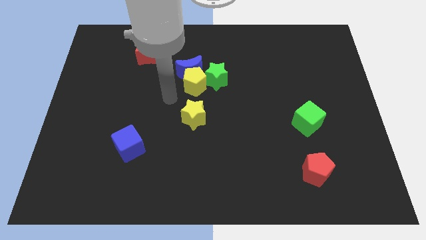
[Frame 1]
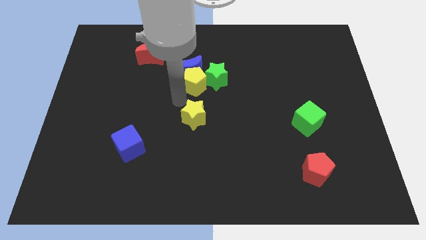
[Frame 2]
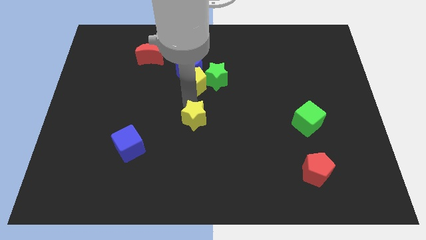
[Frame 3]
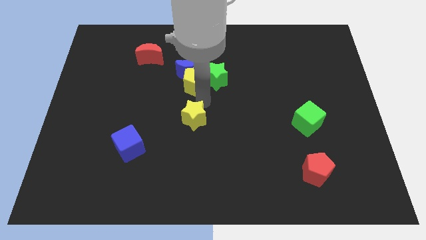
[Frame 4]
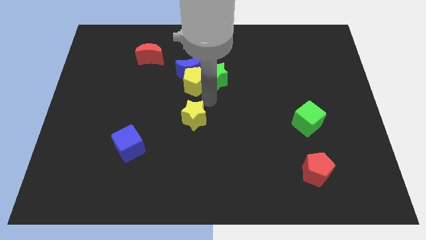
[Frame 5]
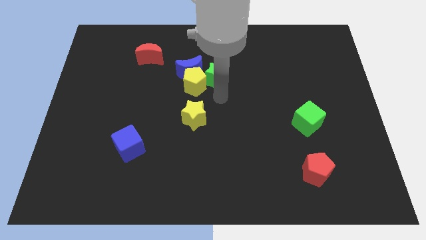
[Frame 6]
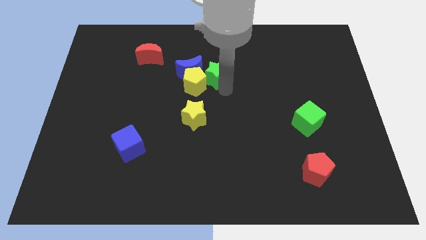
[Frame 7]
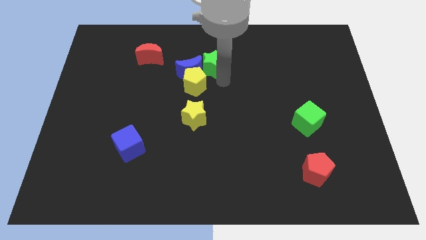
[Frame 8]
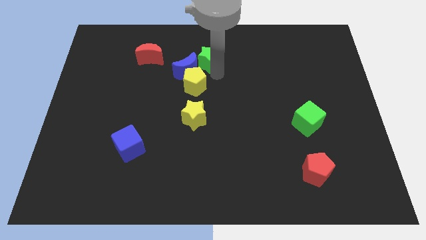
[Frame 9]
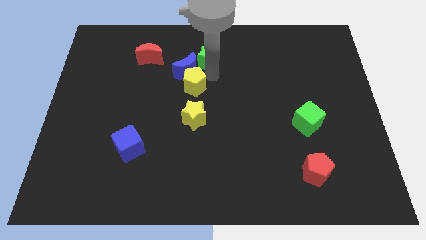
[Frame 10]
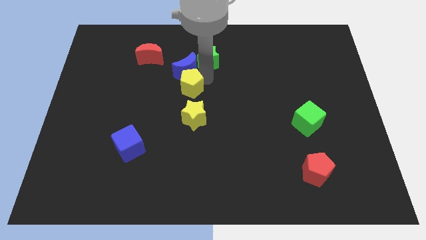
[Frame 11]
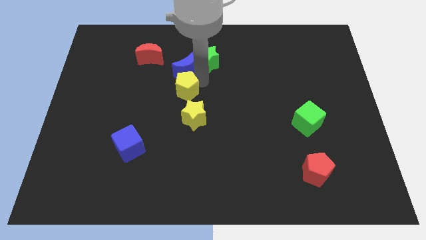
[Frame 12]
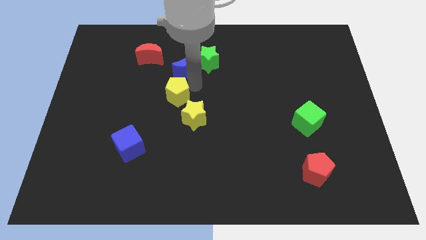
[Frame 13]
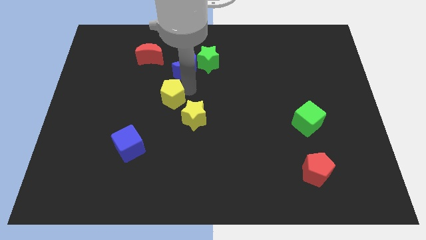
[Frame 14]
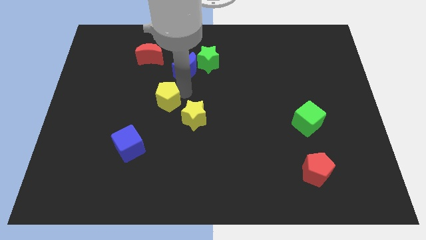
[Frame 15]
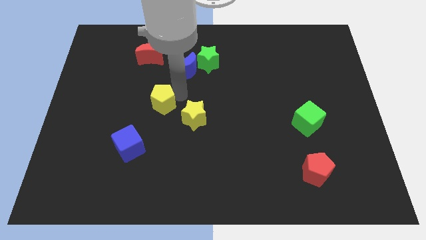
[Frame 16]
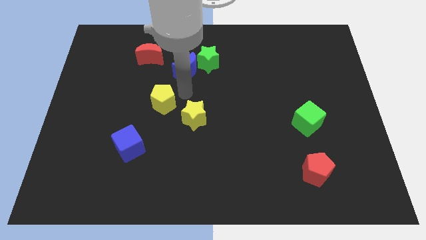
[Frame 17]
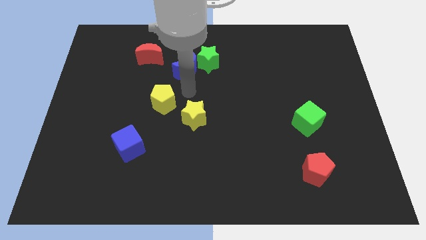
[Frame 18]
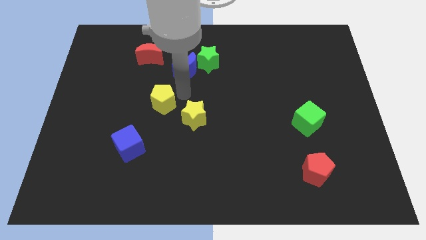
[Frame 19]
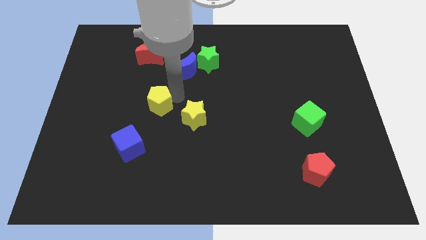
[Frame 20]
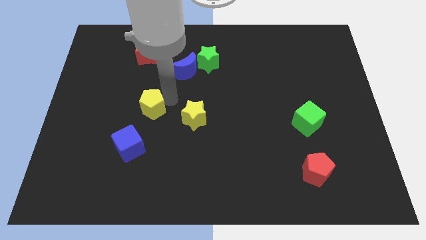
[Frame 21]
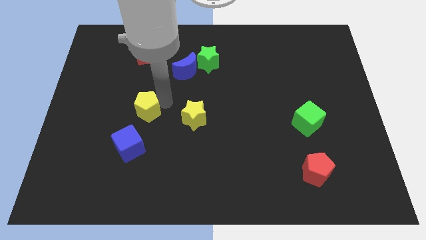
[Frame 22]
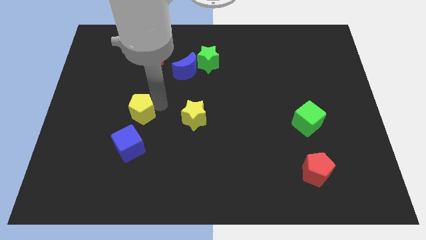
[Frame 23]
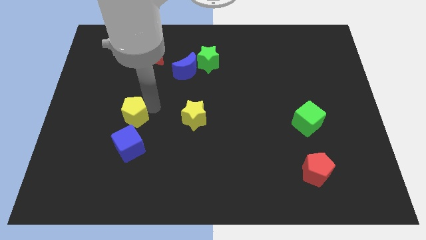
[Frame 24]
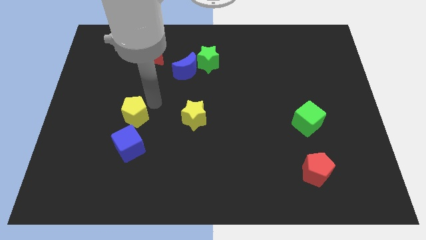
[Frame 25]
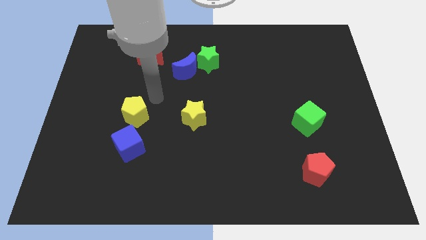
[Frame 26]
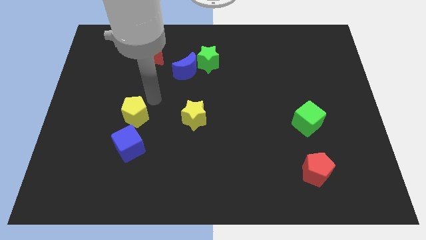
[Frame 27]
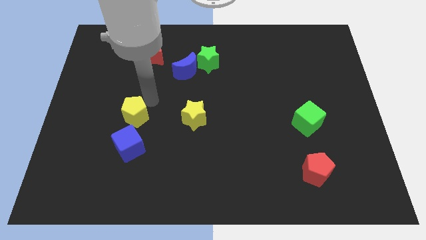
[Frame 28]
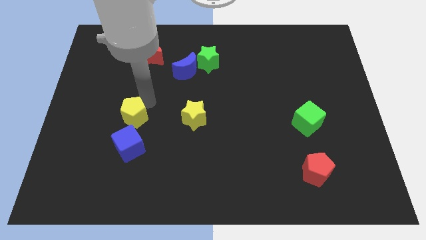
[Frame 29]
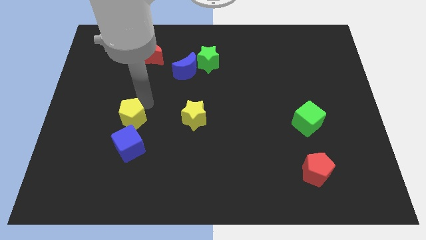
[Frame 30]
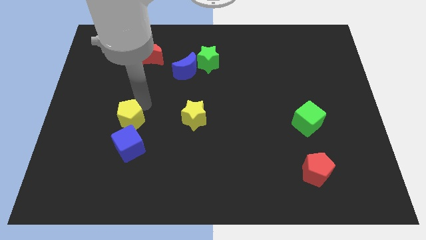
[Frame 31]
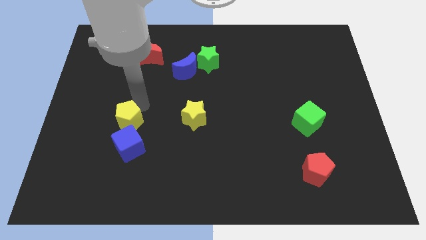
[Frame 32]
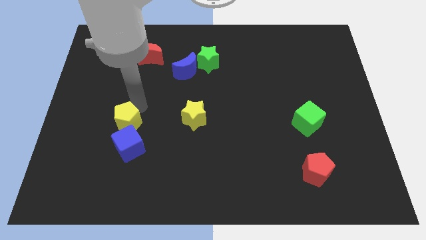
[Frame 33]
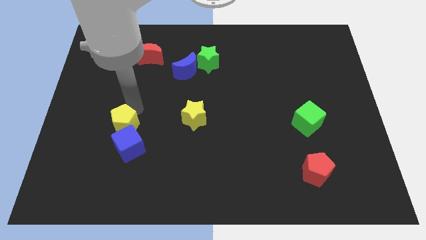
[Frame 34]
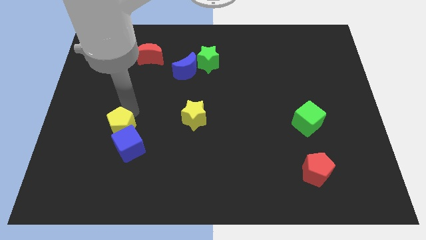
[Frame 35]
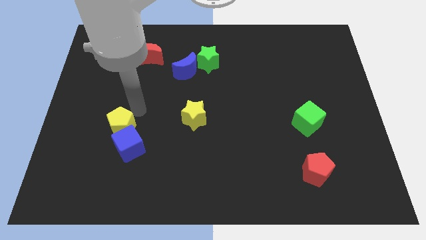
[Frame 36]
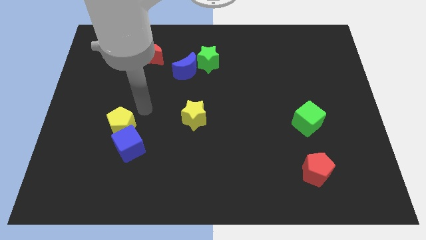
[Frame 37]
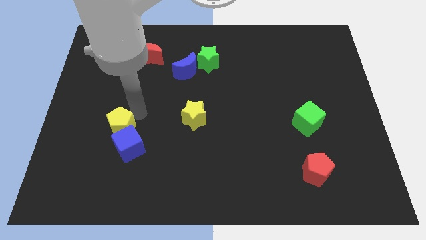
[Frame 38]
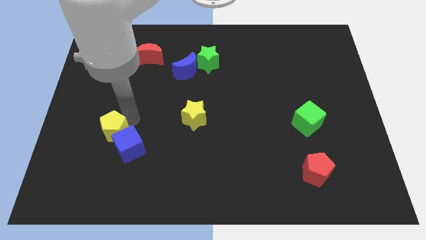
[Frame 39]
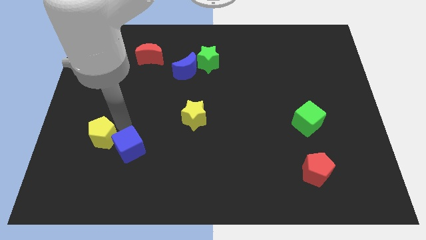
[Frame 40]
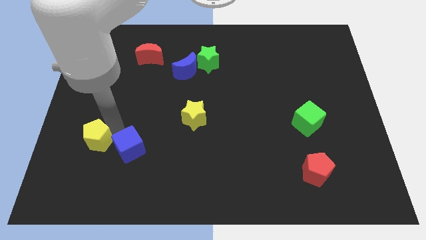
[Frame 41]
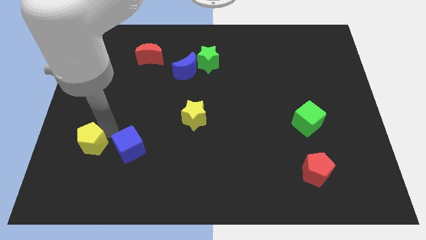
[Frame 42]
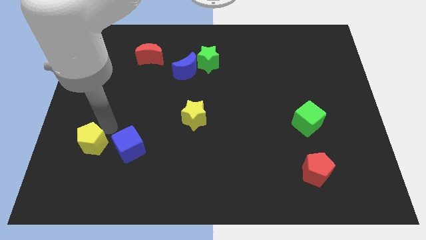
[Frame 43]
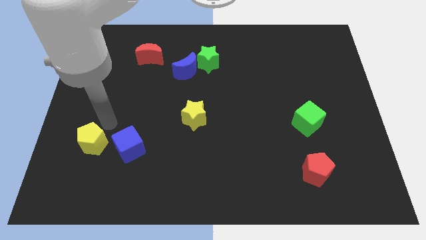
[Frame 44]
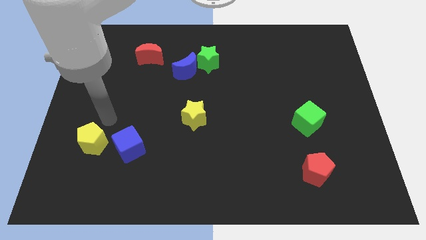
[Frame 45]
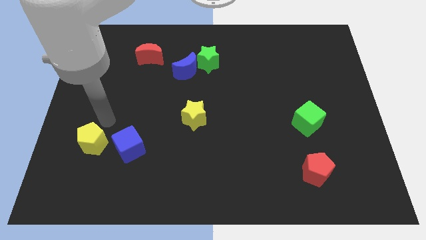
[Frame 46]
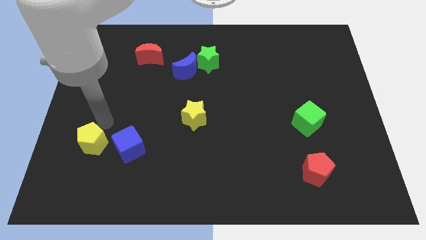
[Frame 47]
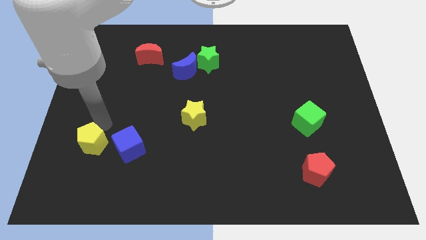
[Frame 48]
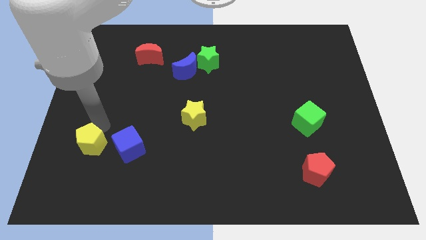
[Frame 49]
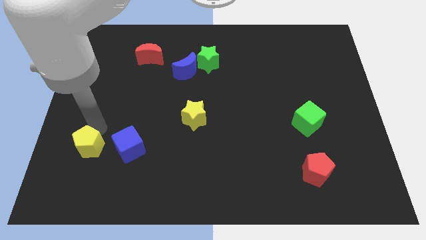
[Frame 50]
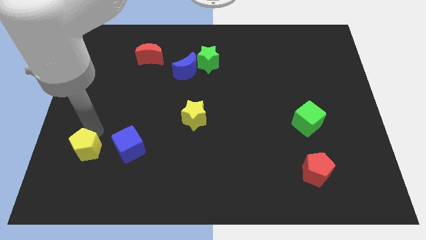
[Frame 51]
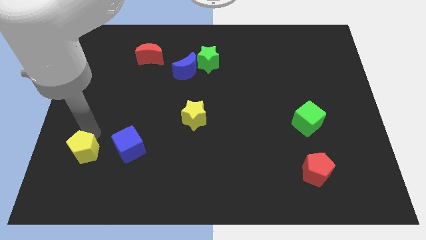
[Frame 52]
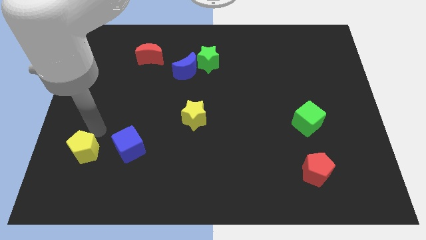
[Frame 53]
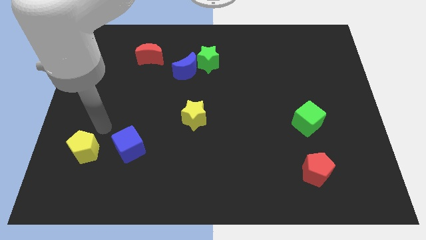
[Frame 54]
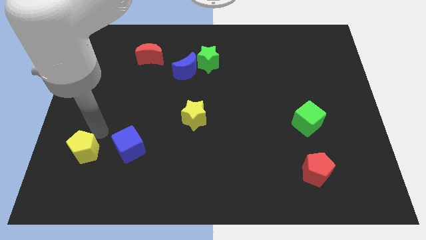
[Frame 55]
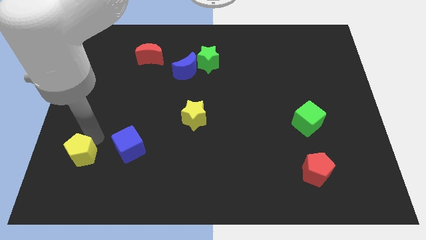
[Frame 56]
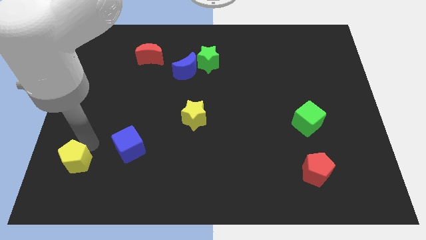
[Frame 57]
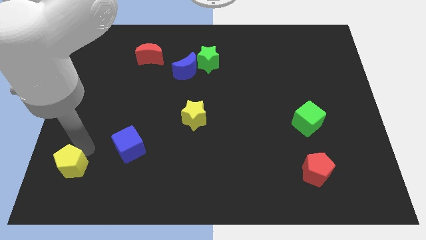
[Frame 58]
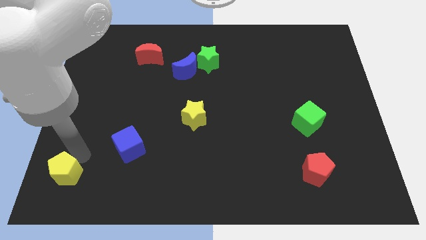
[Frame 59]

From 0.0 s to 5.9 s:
slide the yellow pentagon to the bottom left of the board

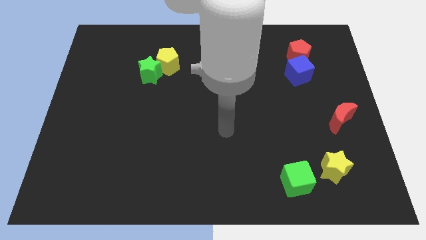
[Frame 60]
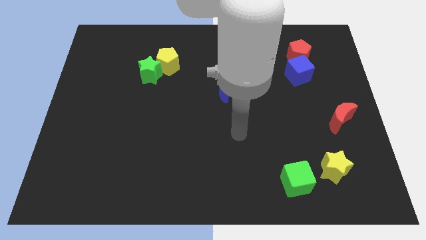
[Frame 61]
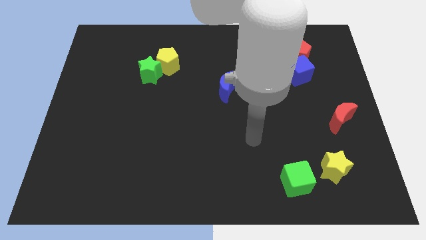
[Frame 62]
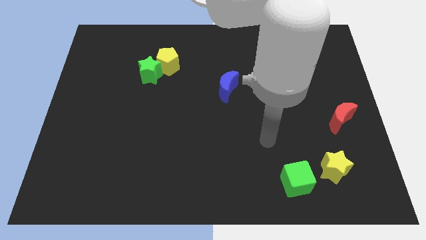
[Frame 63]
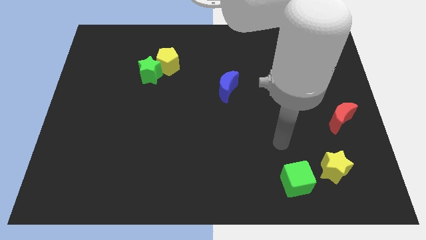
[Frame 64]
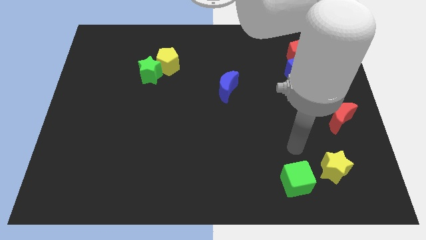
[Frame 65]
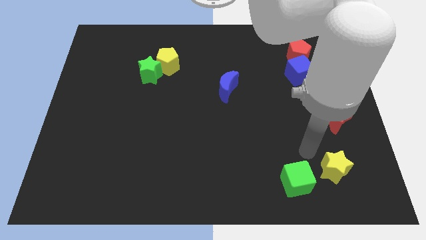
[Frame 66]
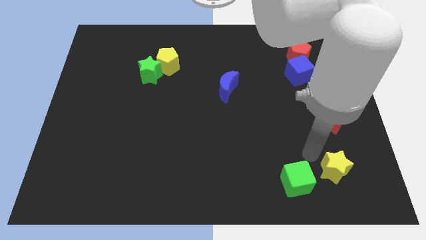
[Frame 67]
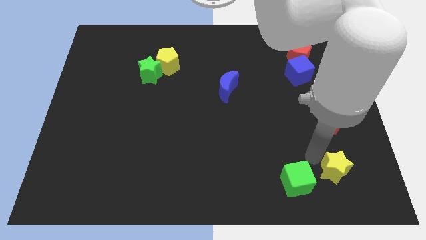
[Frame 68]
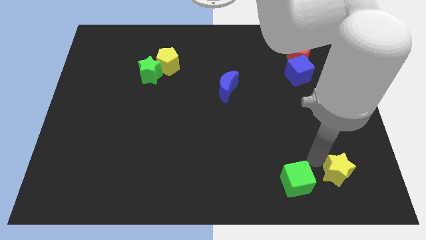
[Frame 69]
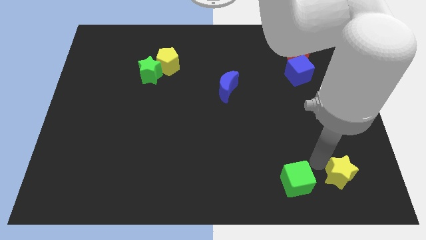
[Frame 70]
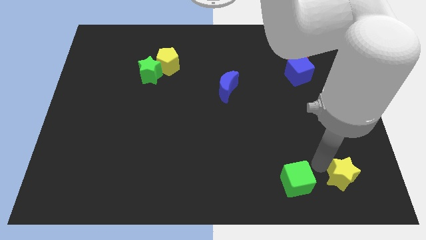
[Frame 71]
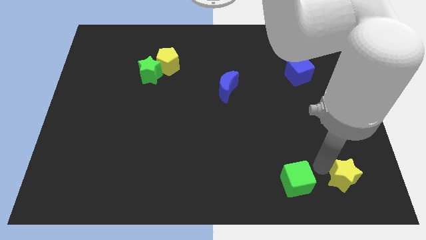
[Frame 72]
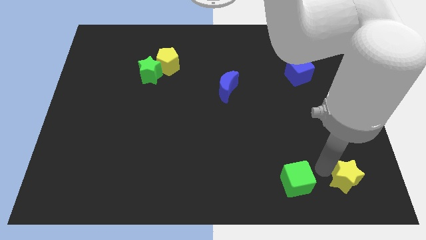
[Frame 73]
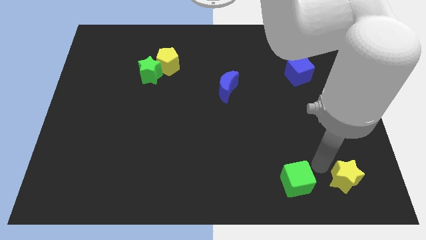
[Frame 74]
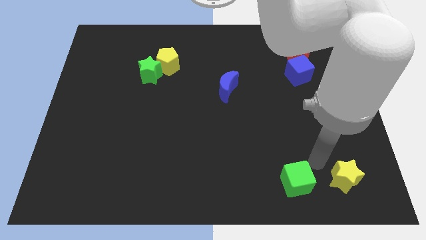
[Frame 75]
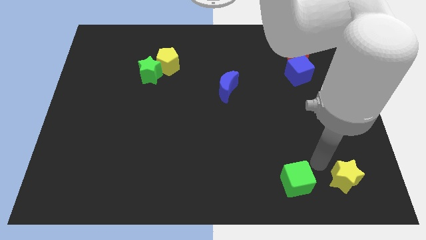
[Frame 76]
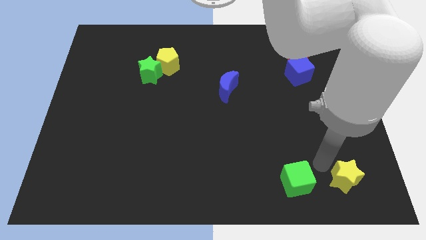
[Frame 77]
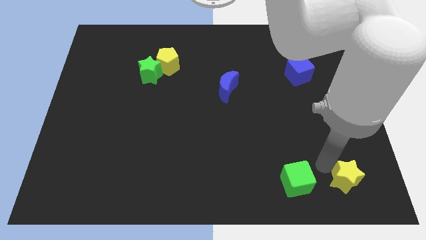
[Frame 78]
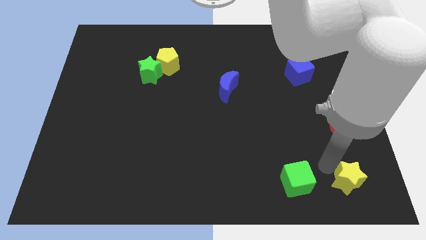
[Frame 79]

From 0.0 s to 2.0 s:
slide the yellow star to the bottom right corner

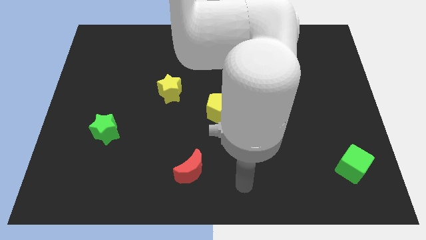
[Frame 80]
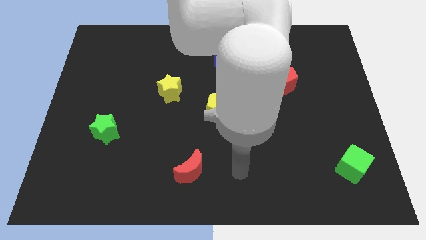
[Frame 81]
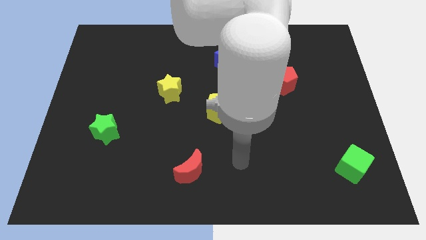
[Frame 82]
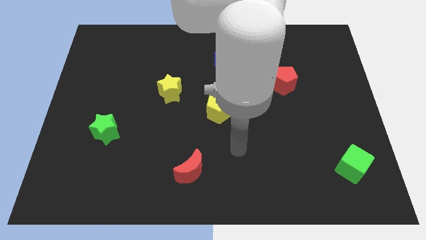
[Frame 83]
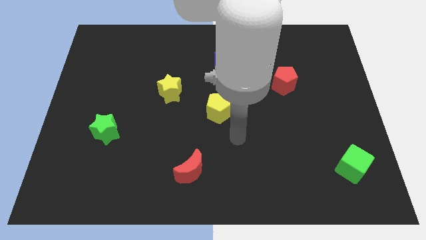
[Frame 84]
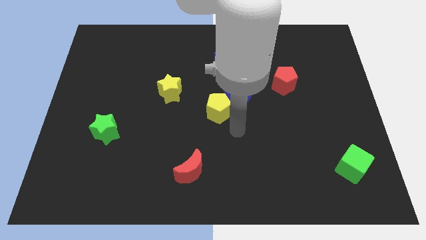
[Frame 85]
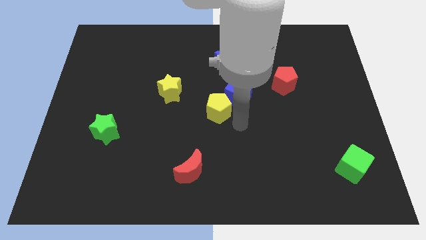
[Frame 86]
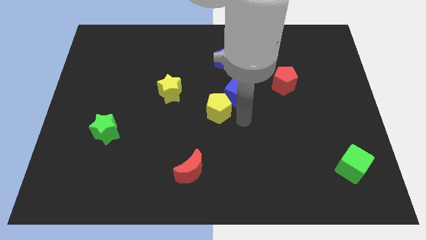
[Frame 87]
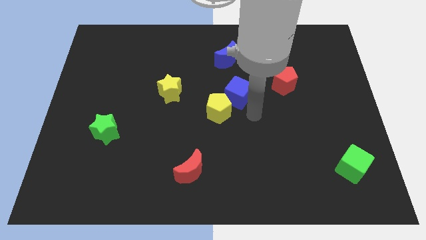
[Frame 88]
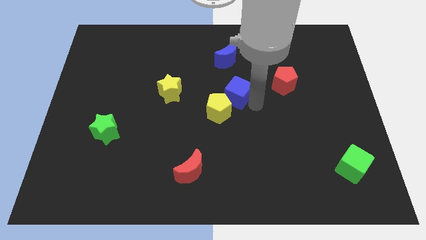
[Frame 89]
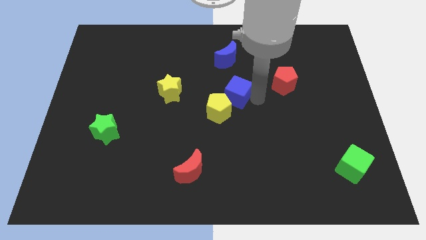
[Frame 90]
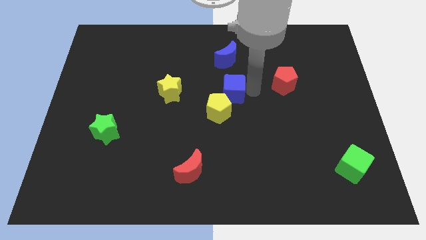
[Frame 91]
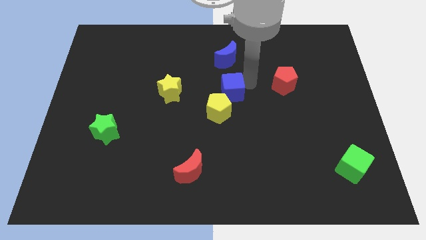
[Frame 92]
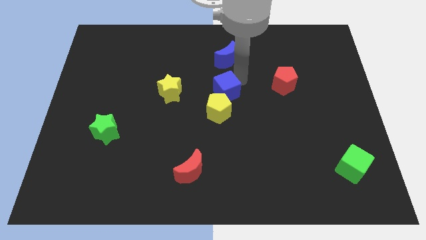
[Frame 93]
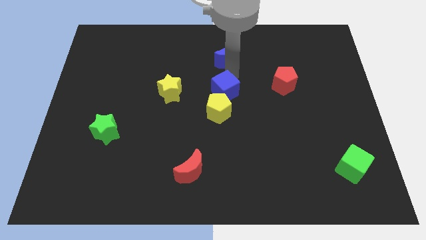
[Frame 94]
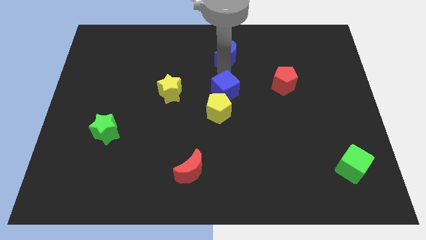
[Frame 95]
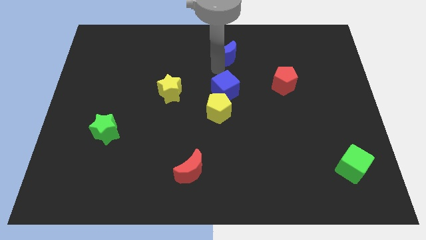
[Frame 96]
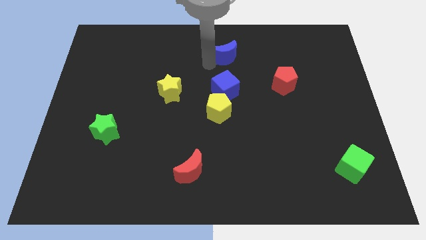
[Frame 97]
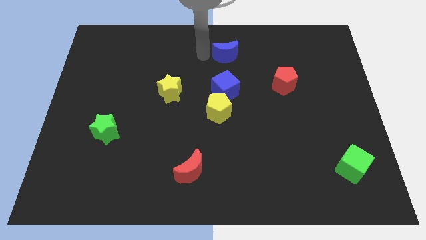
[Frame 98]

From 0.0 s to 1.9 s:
push the blue moon to the top side
